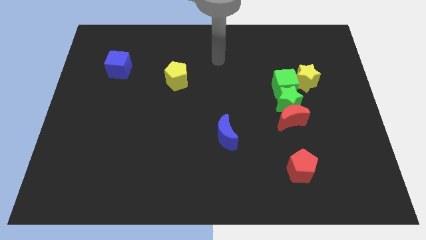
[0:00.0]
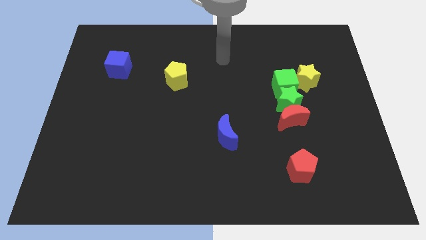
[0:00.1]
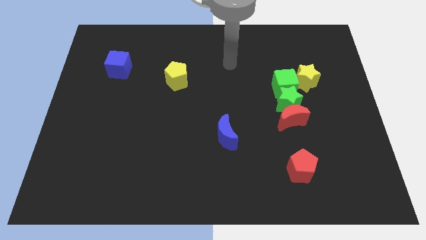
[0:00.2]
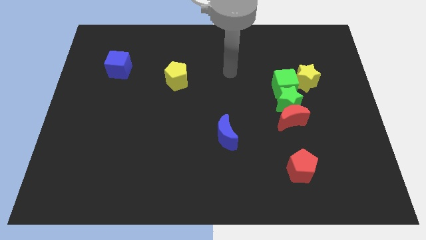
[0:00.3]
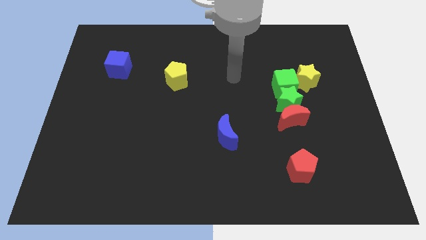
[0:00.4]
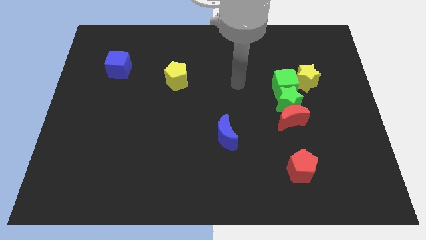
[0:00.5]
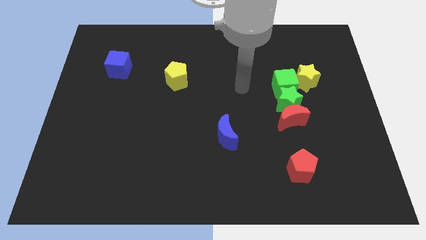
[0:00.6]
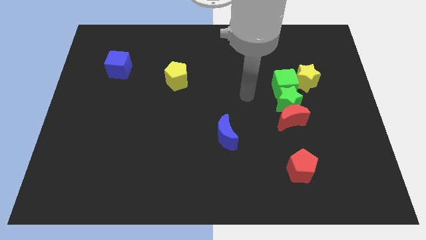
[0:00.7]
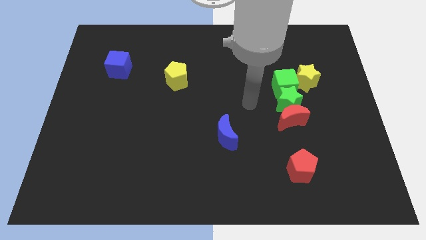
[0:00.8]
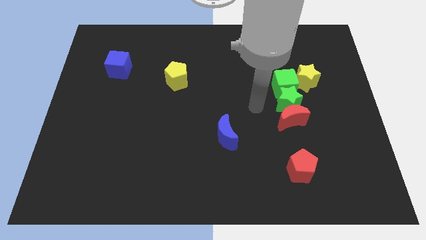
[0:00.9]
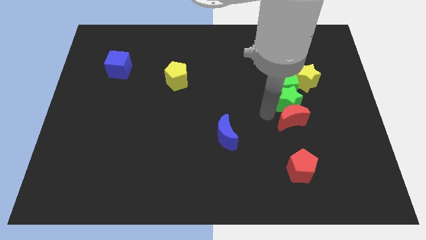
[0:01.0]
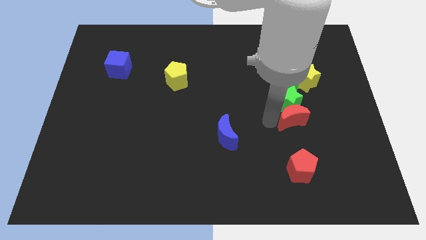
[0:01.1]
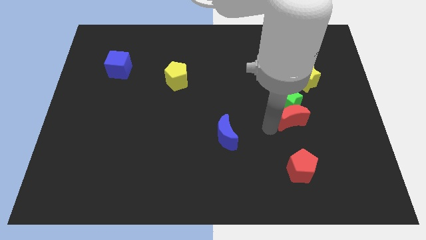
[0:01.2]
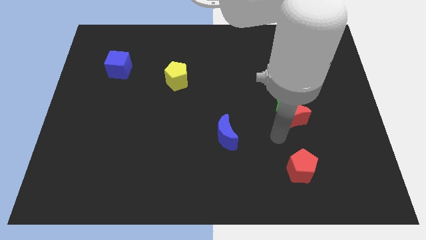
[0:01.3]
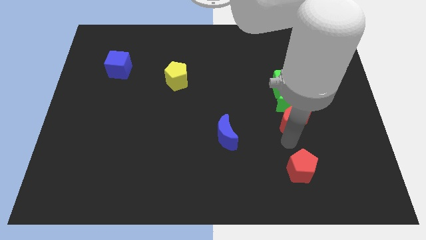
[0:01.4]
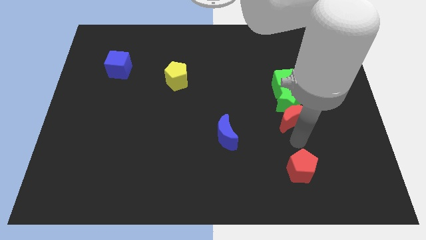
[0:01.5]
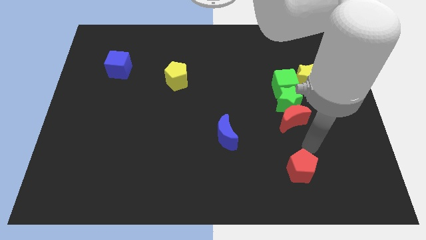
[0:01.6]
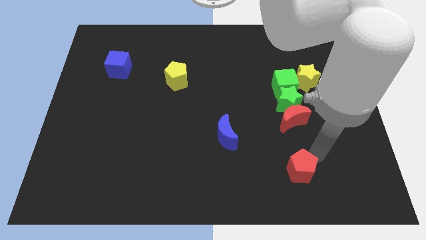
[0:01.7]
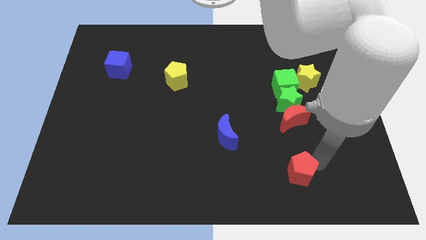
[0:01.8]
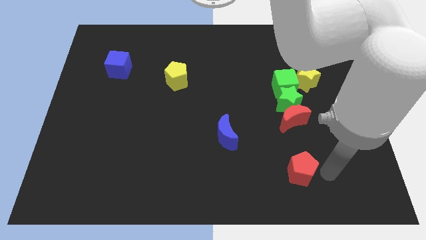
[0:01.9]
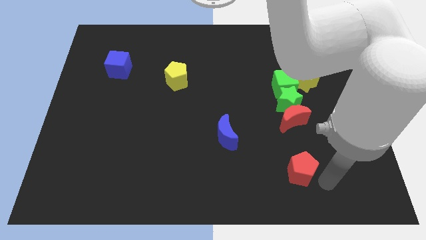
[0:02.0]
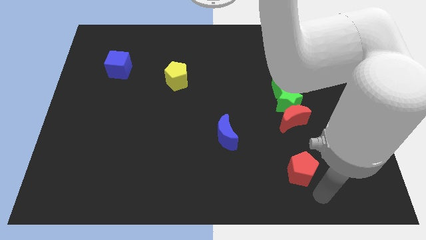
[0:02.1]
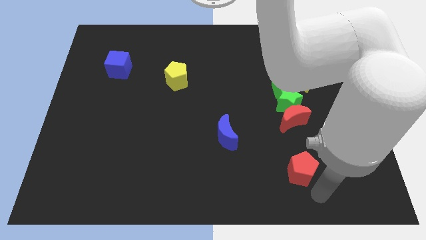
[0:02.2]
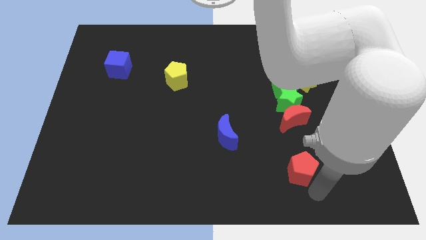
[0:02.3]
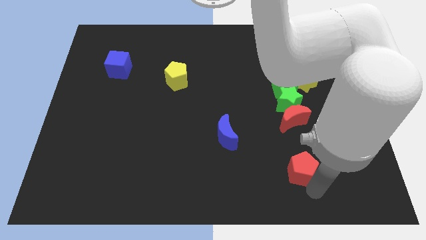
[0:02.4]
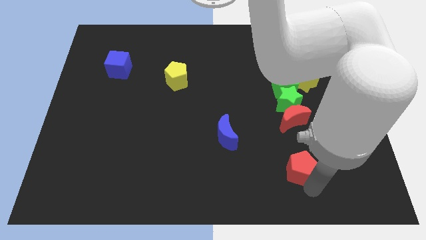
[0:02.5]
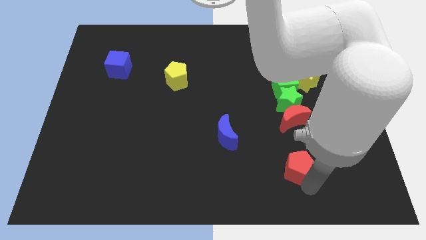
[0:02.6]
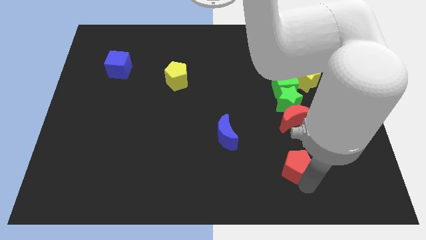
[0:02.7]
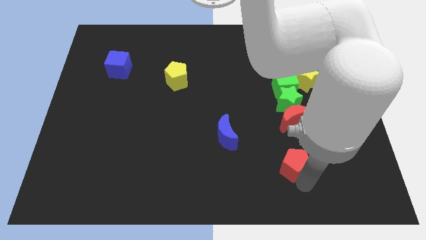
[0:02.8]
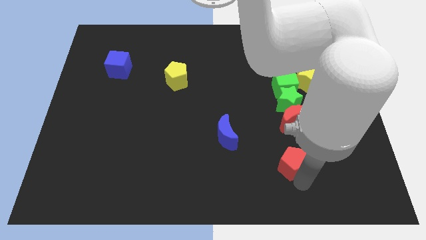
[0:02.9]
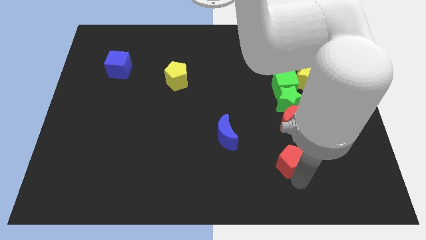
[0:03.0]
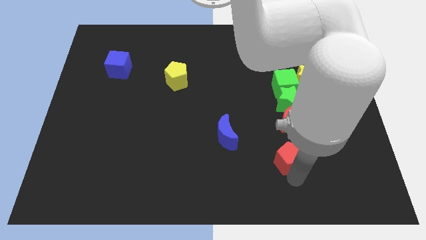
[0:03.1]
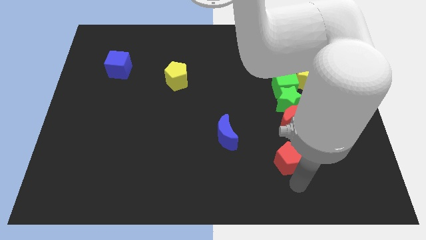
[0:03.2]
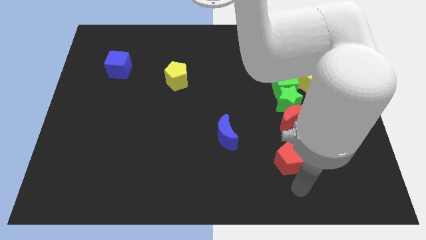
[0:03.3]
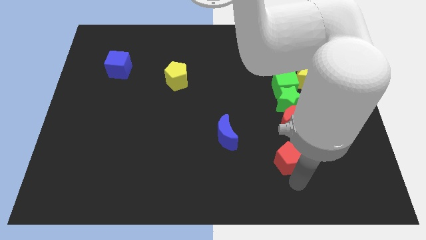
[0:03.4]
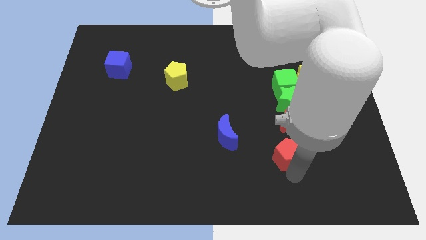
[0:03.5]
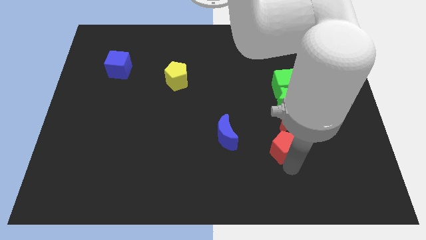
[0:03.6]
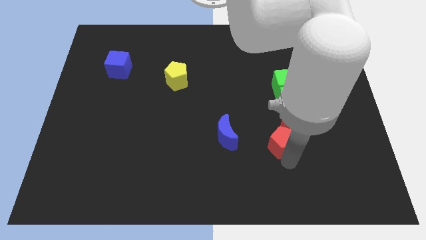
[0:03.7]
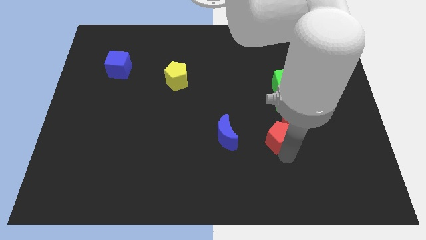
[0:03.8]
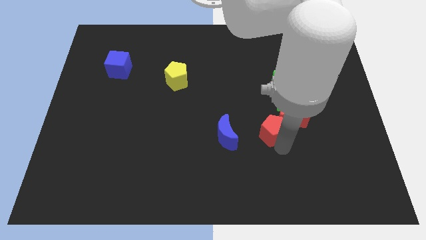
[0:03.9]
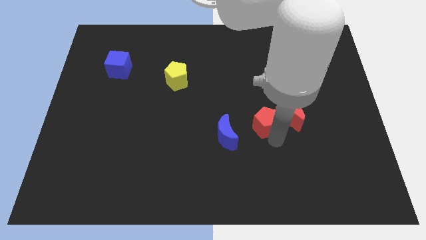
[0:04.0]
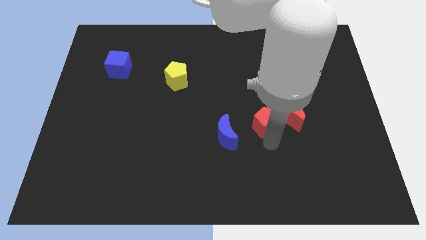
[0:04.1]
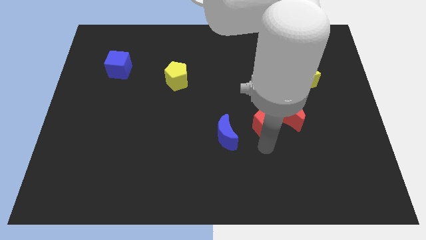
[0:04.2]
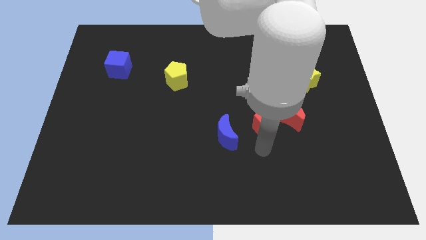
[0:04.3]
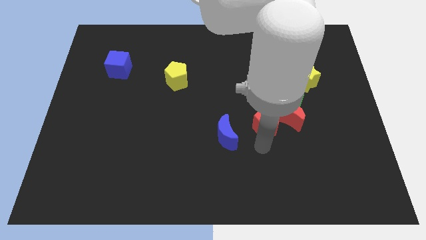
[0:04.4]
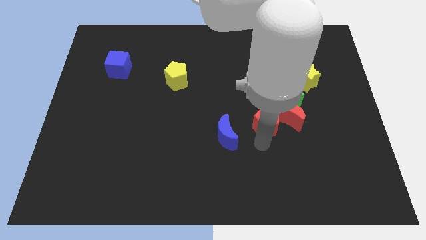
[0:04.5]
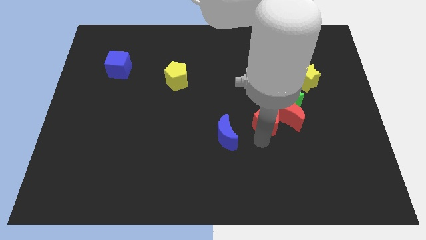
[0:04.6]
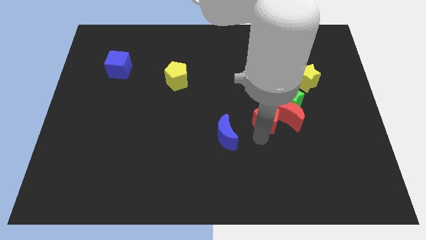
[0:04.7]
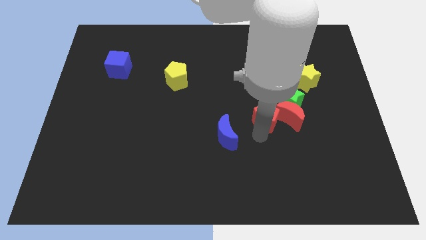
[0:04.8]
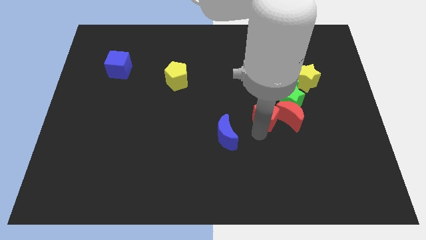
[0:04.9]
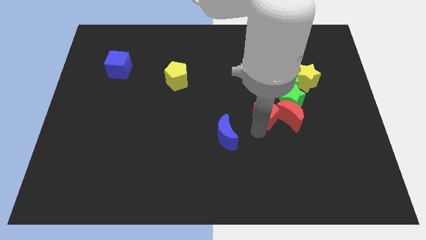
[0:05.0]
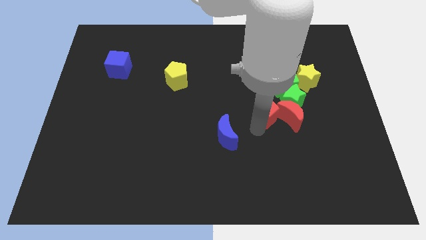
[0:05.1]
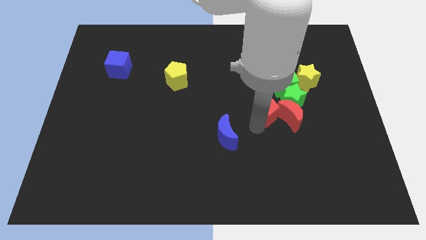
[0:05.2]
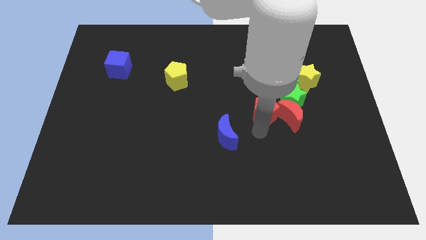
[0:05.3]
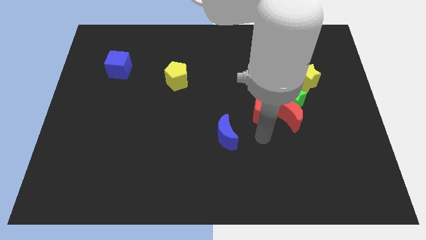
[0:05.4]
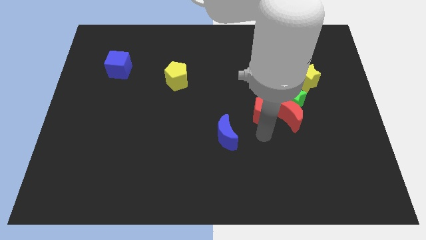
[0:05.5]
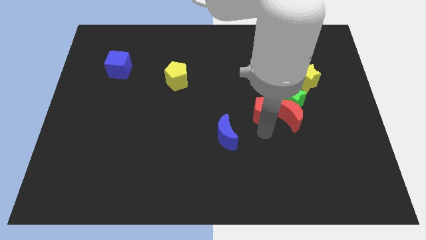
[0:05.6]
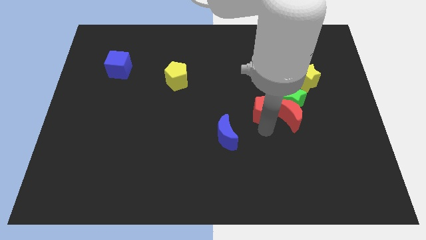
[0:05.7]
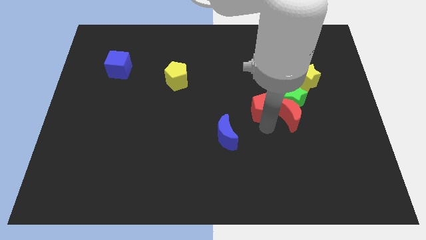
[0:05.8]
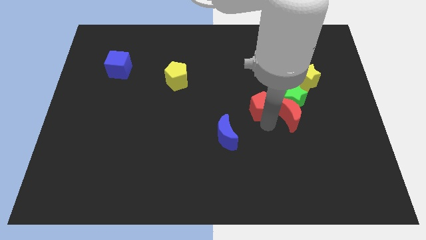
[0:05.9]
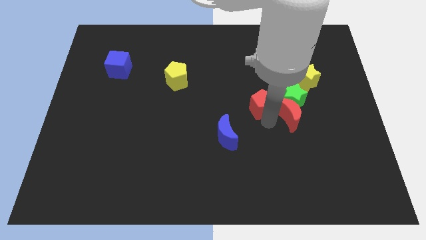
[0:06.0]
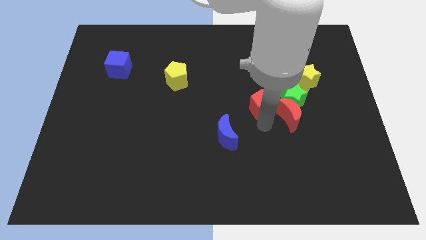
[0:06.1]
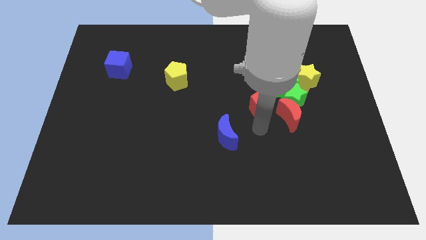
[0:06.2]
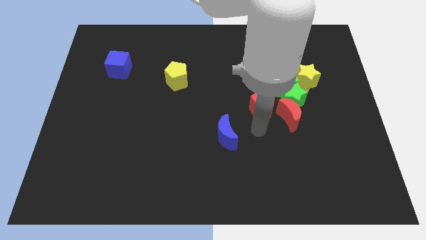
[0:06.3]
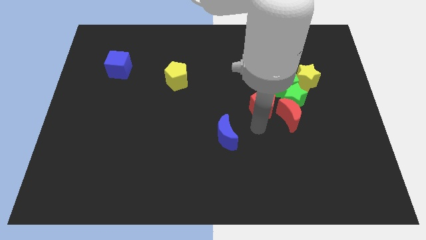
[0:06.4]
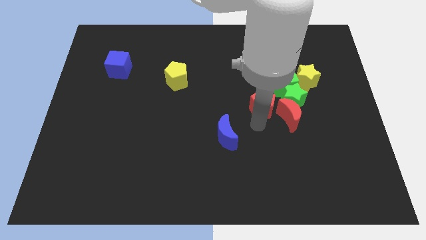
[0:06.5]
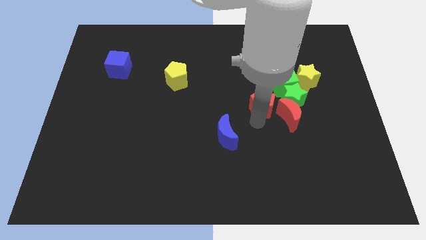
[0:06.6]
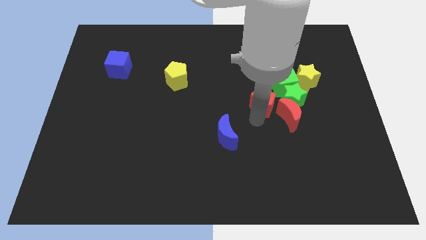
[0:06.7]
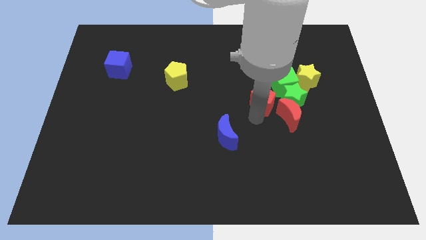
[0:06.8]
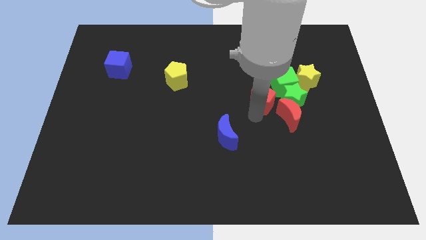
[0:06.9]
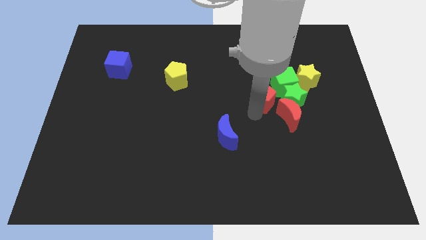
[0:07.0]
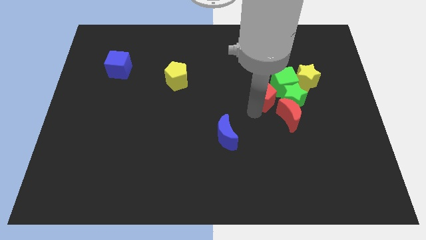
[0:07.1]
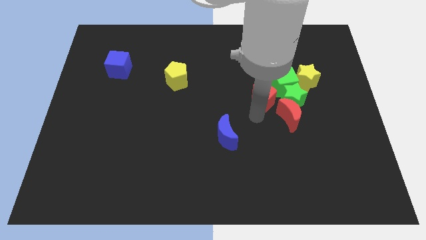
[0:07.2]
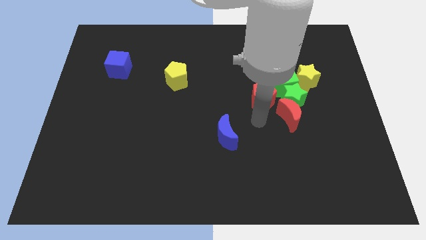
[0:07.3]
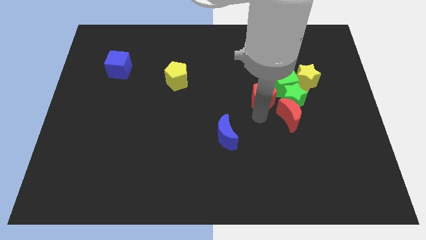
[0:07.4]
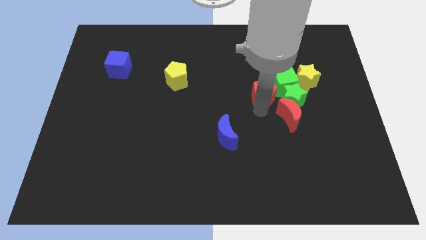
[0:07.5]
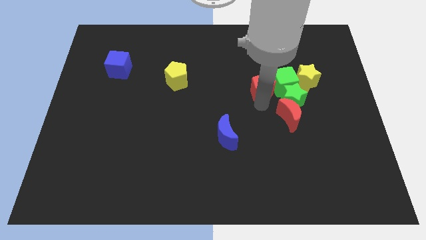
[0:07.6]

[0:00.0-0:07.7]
slide the red pentagon upwards
